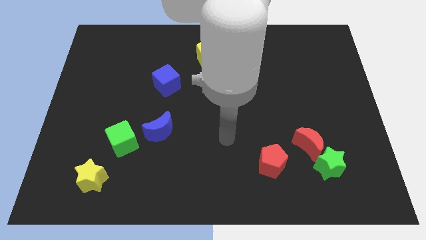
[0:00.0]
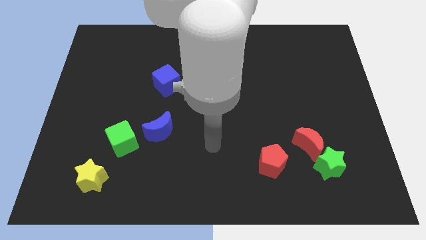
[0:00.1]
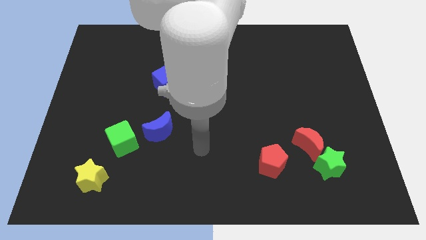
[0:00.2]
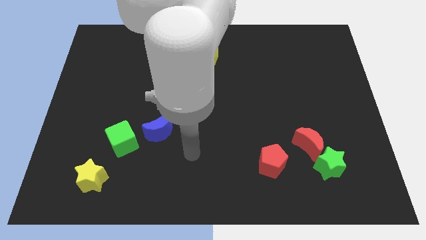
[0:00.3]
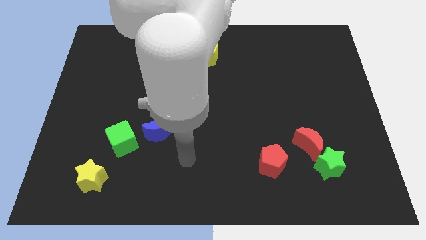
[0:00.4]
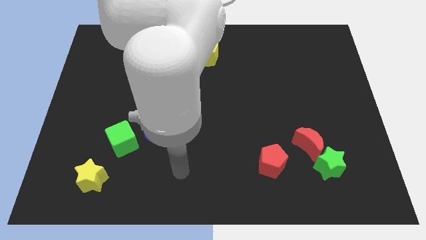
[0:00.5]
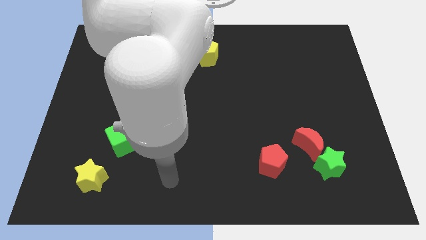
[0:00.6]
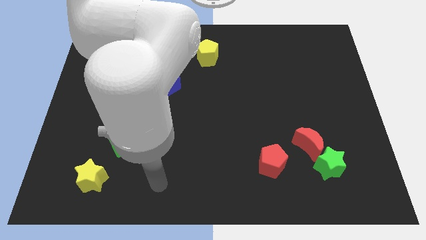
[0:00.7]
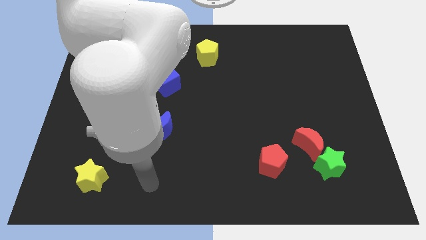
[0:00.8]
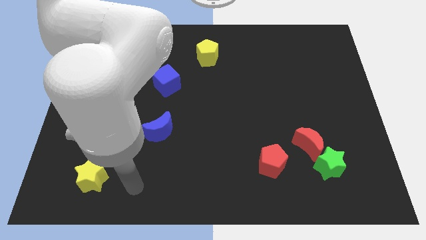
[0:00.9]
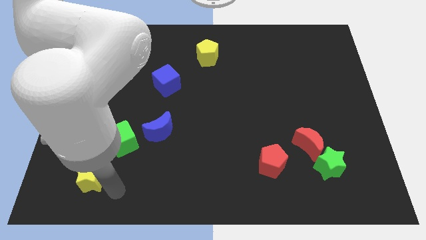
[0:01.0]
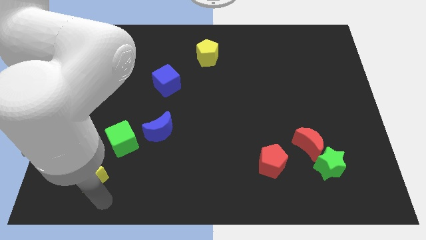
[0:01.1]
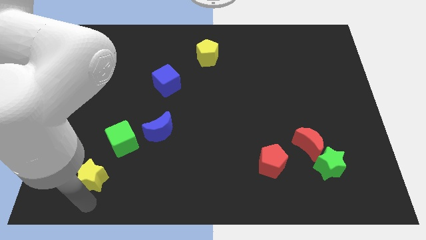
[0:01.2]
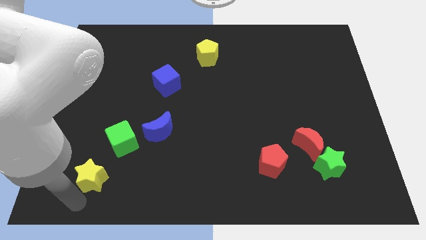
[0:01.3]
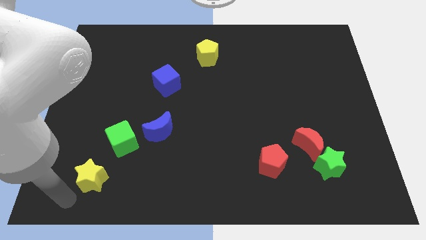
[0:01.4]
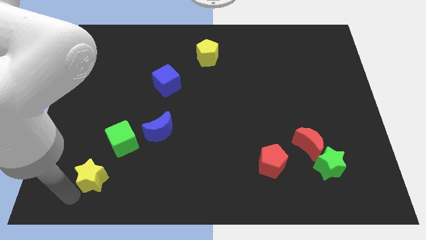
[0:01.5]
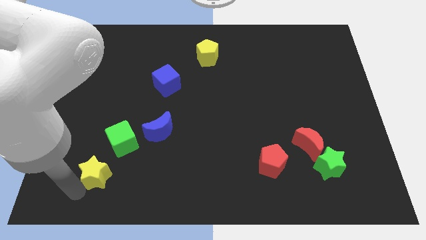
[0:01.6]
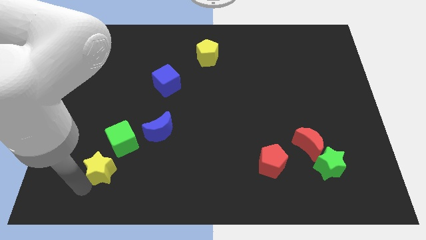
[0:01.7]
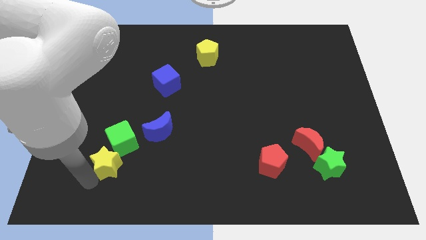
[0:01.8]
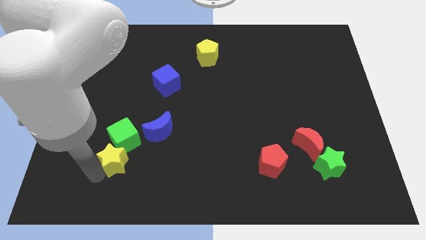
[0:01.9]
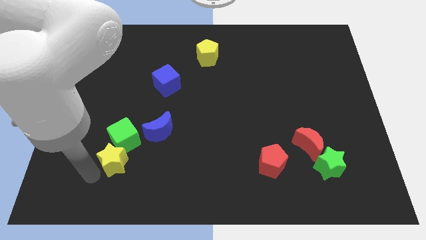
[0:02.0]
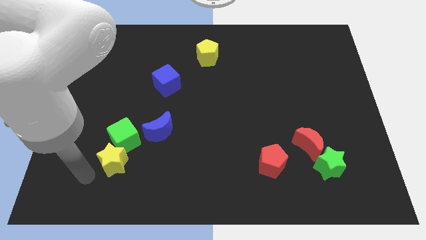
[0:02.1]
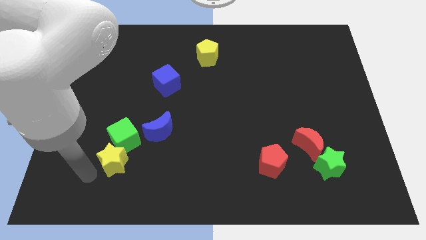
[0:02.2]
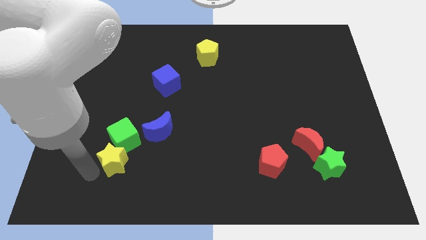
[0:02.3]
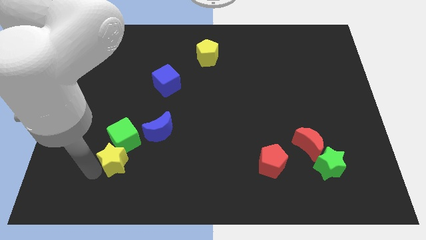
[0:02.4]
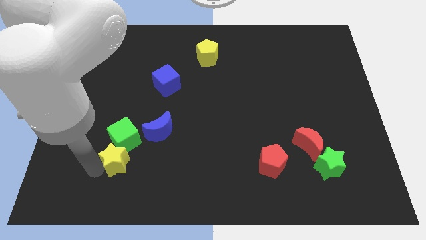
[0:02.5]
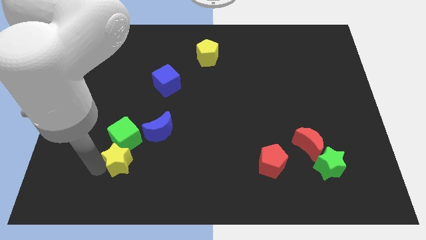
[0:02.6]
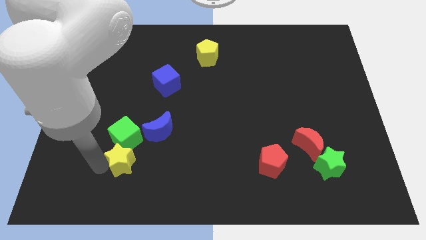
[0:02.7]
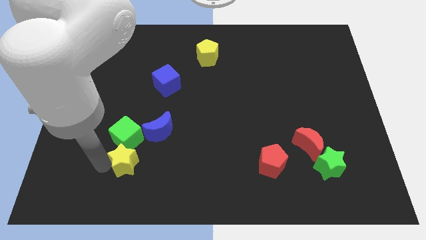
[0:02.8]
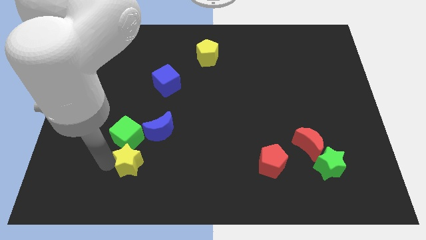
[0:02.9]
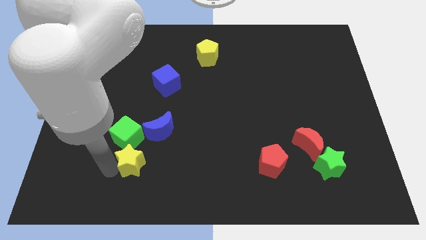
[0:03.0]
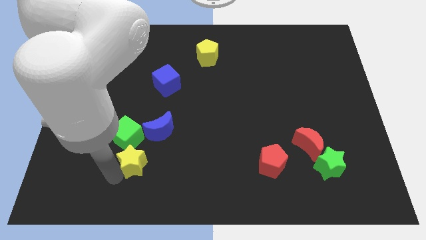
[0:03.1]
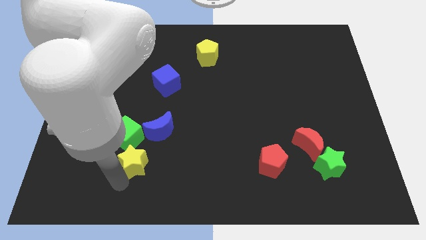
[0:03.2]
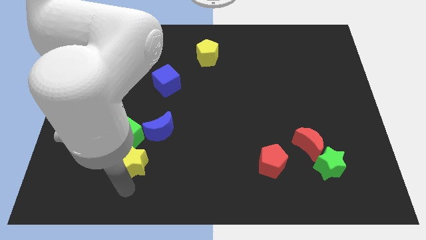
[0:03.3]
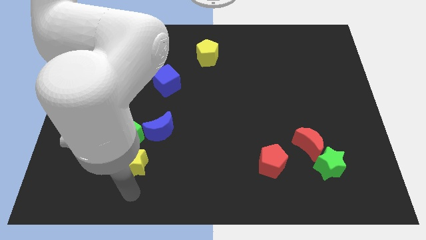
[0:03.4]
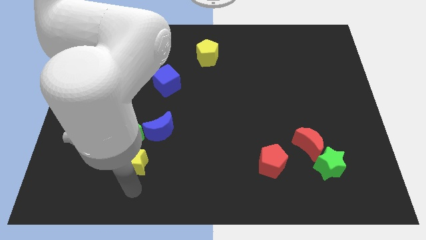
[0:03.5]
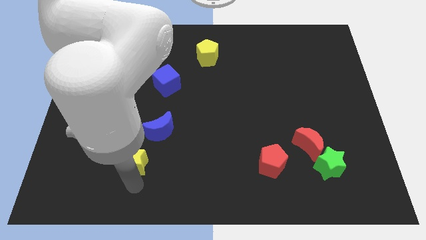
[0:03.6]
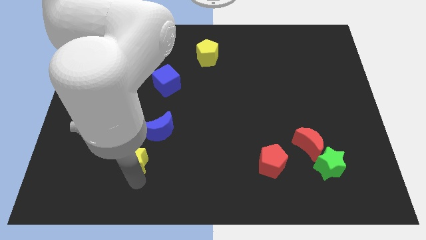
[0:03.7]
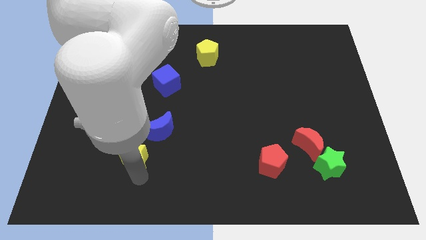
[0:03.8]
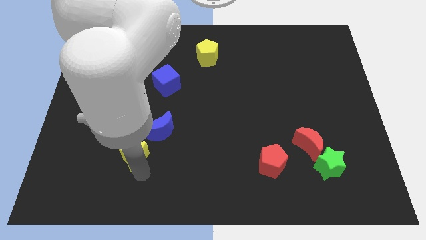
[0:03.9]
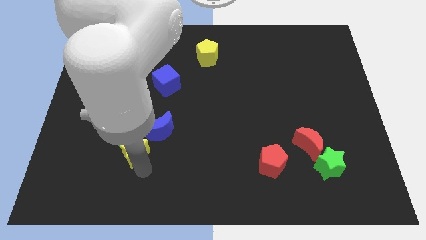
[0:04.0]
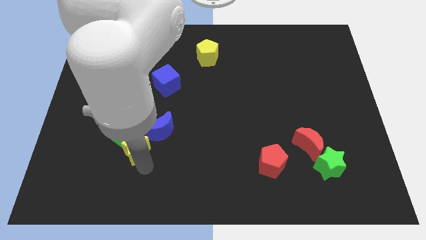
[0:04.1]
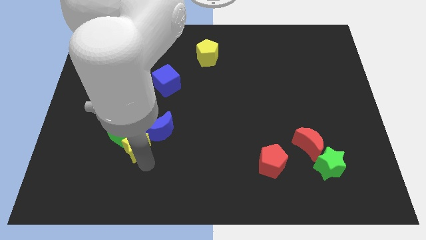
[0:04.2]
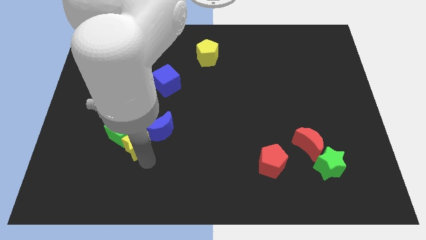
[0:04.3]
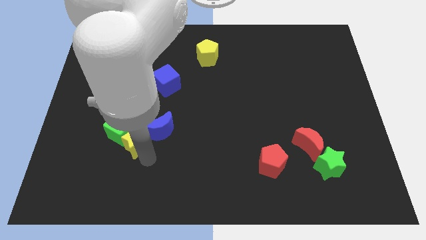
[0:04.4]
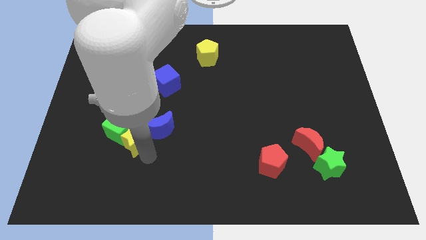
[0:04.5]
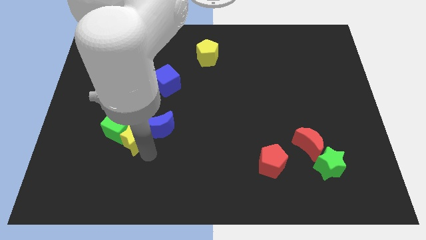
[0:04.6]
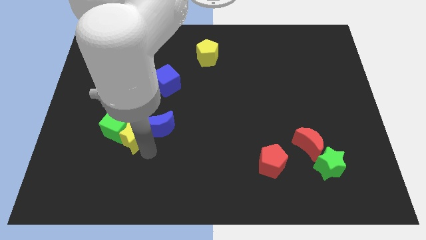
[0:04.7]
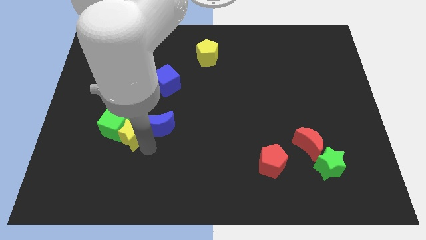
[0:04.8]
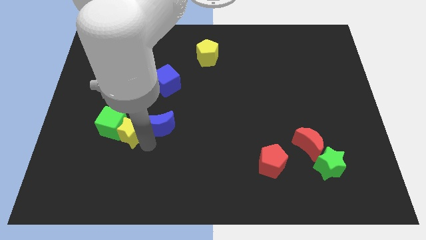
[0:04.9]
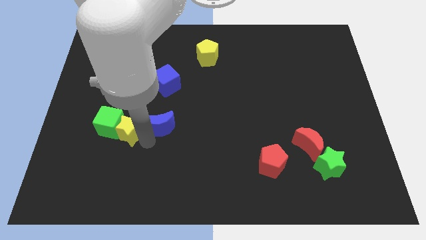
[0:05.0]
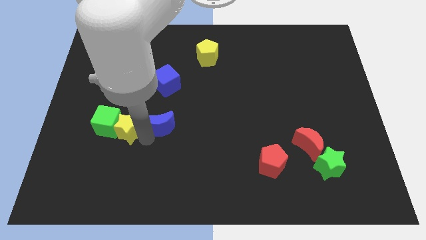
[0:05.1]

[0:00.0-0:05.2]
push the yellow star to the top right side of the green cube

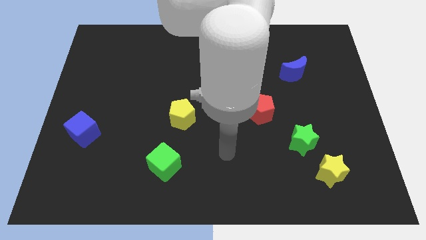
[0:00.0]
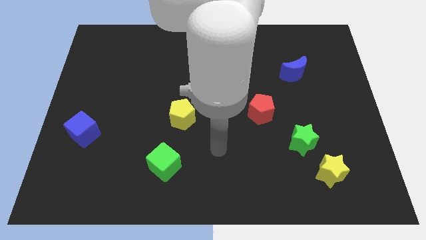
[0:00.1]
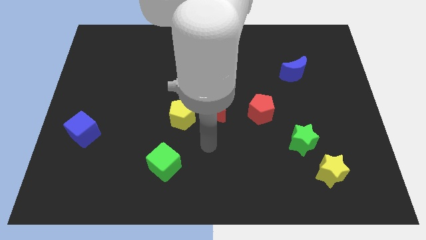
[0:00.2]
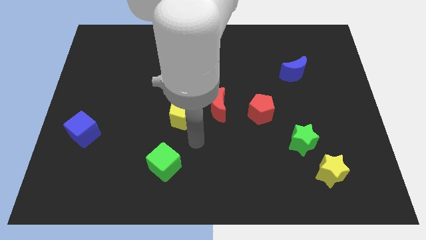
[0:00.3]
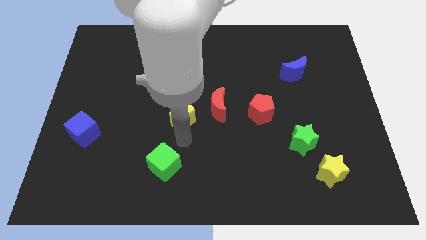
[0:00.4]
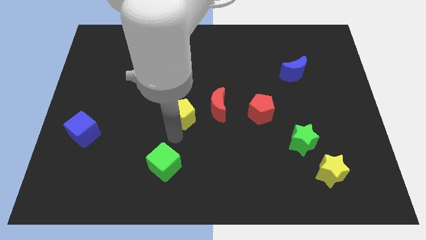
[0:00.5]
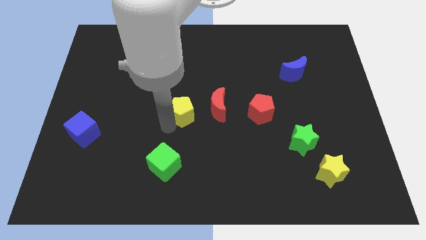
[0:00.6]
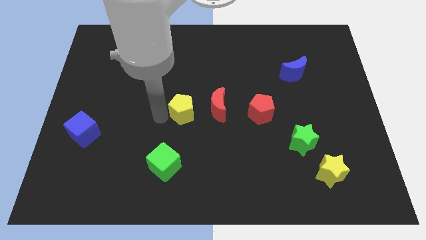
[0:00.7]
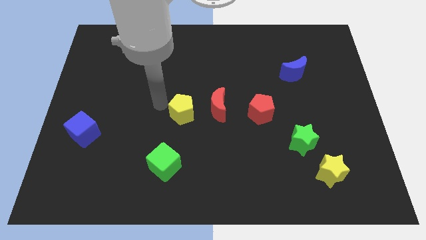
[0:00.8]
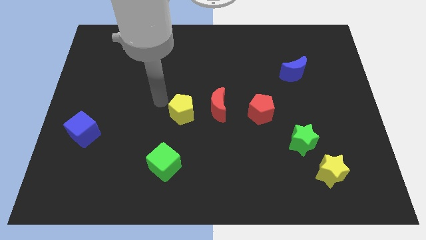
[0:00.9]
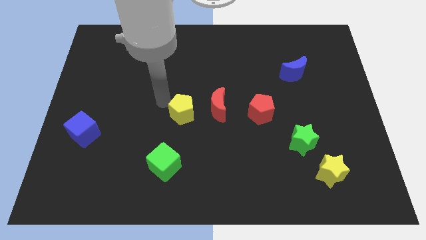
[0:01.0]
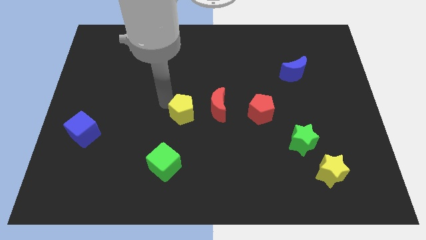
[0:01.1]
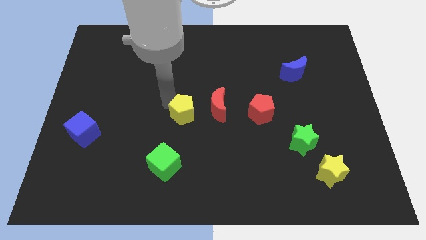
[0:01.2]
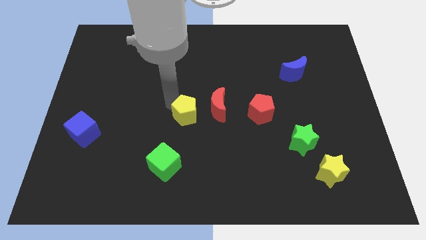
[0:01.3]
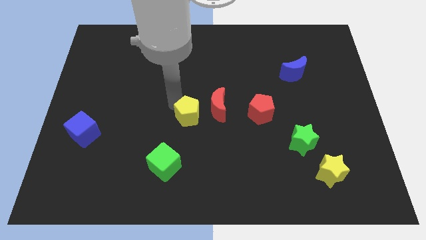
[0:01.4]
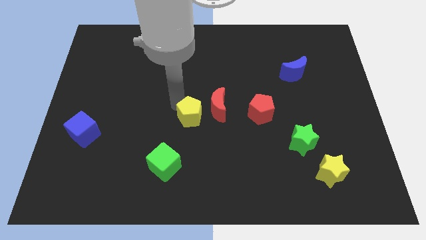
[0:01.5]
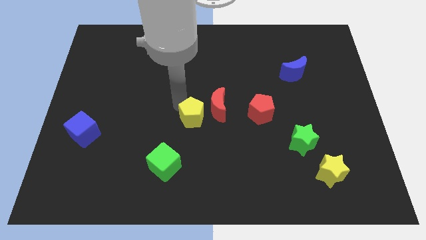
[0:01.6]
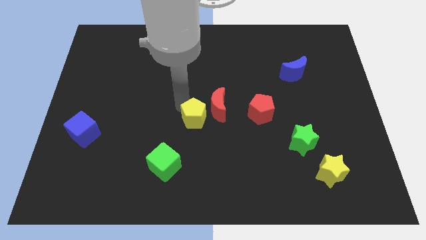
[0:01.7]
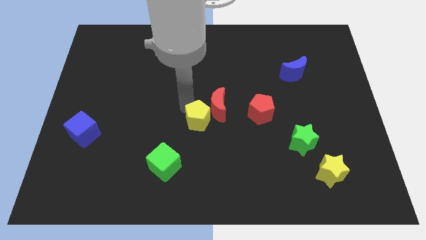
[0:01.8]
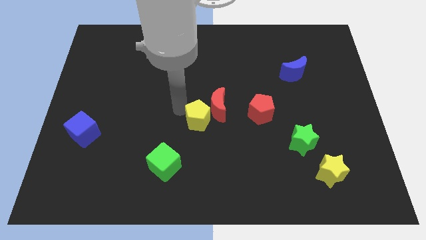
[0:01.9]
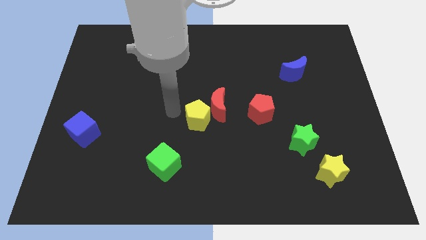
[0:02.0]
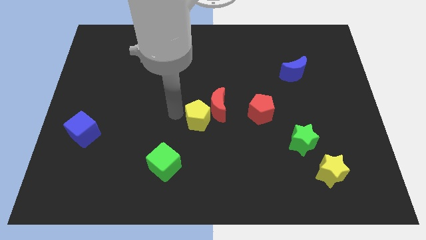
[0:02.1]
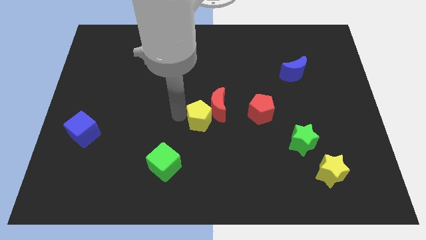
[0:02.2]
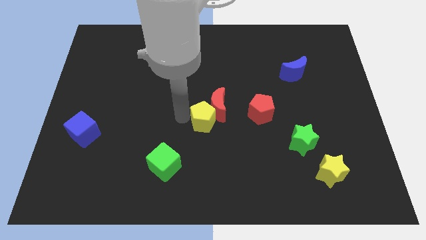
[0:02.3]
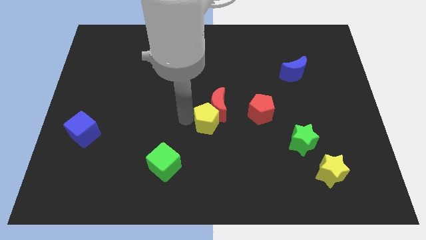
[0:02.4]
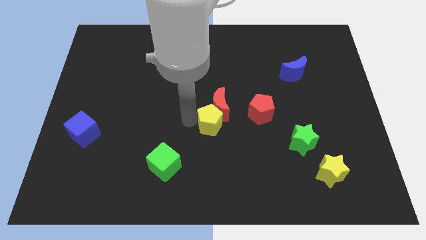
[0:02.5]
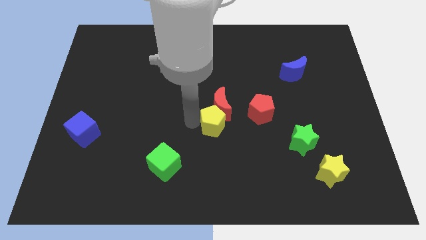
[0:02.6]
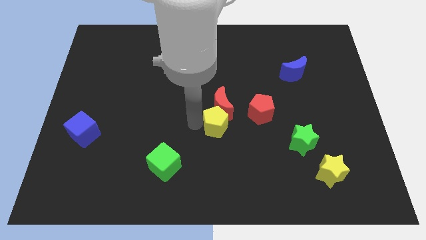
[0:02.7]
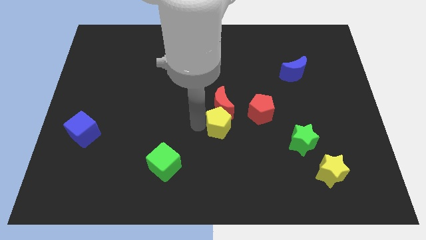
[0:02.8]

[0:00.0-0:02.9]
move the yellow pentagon to the bottom left of the red pentagon
